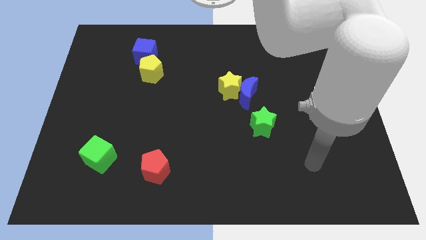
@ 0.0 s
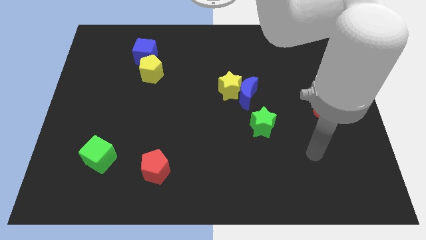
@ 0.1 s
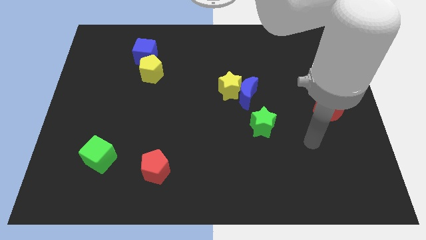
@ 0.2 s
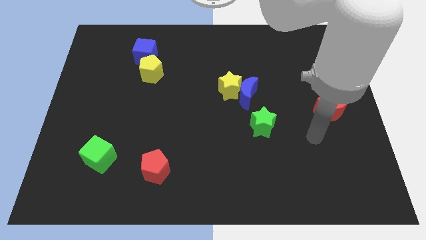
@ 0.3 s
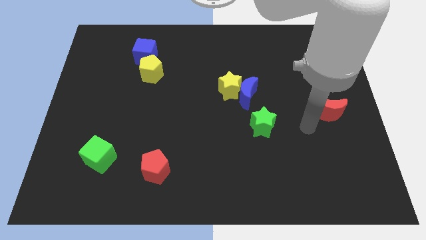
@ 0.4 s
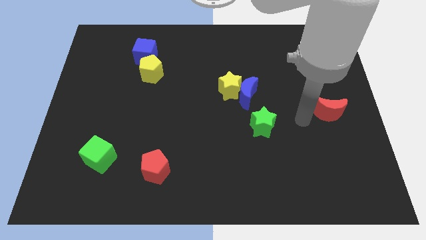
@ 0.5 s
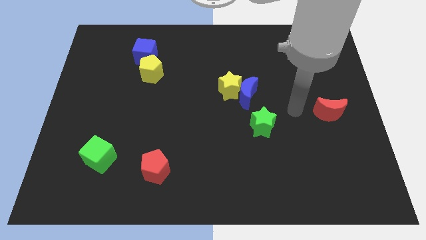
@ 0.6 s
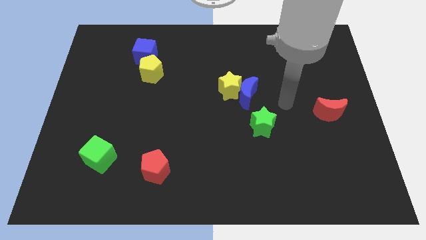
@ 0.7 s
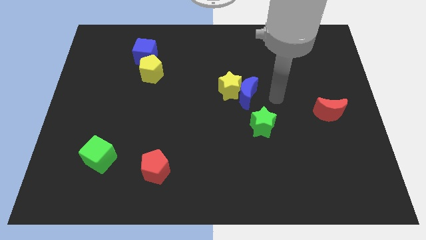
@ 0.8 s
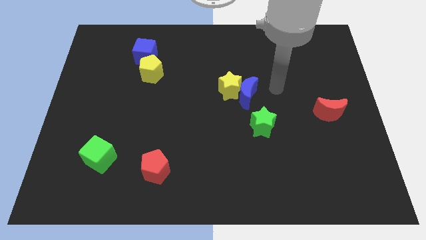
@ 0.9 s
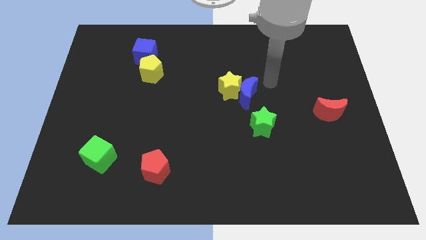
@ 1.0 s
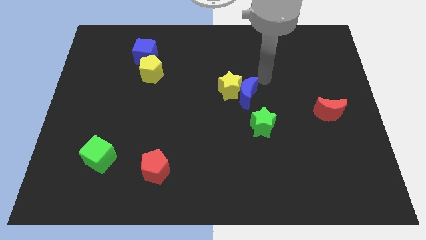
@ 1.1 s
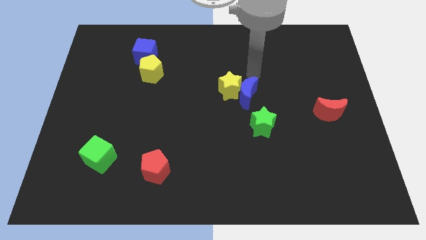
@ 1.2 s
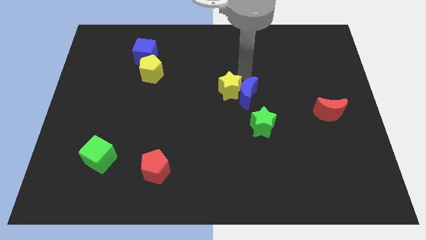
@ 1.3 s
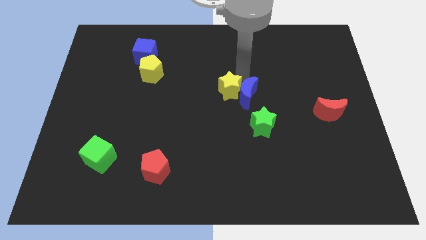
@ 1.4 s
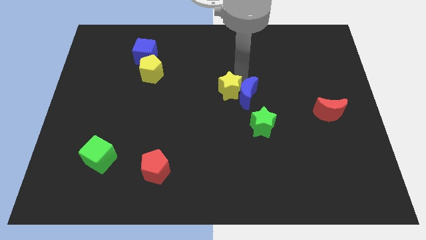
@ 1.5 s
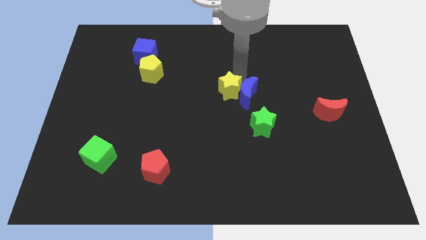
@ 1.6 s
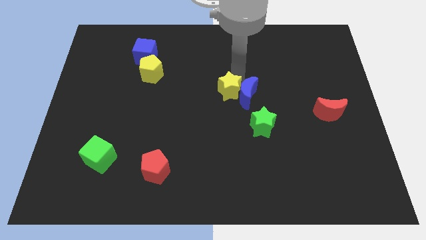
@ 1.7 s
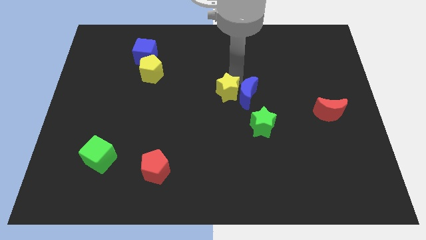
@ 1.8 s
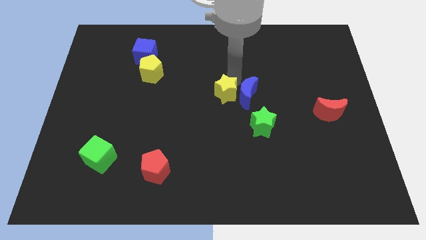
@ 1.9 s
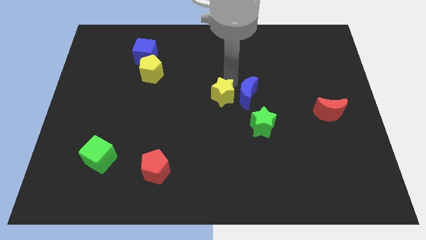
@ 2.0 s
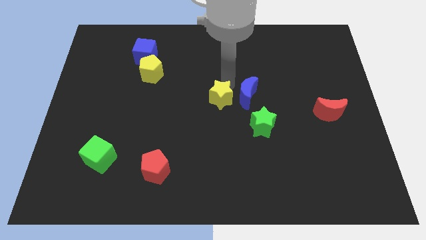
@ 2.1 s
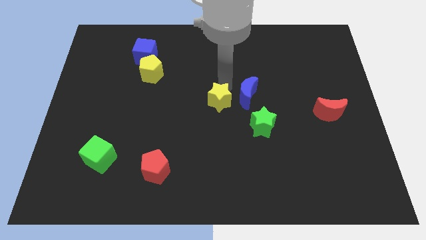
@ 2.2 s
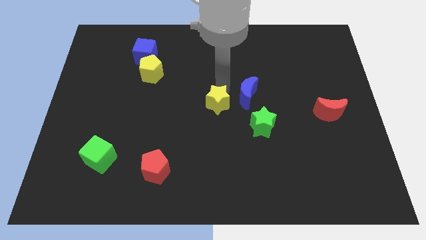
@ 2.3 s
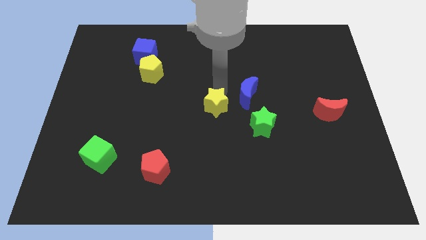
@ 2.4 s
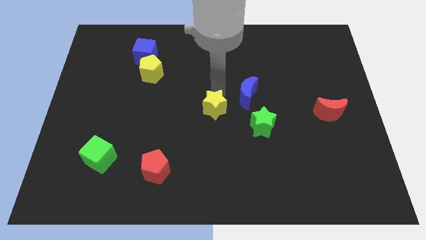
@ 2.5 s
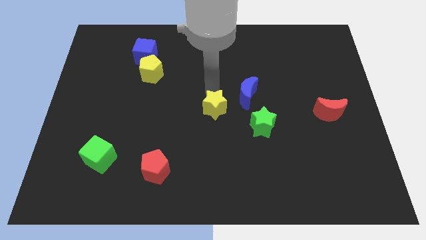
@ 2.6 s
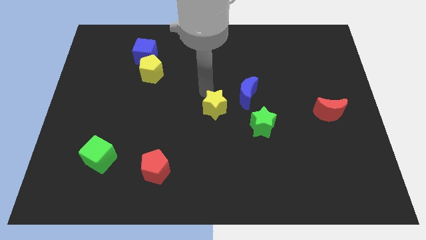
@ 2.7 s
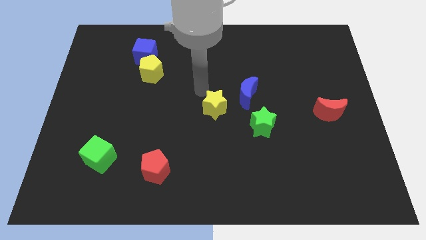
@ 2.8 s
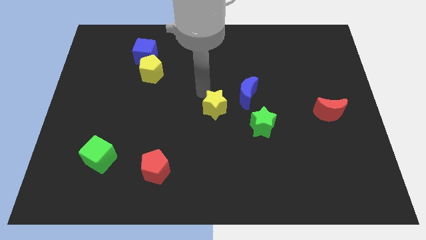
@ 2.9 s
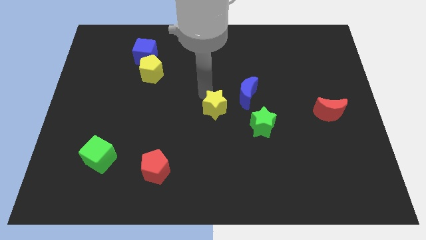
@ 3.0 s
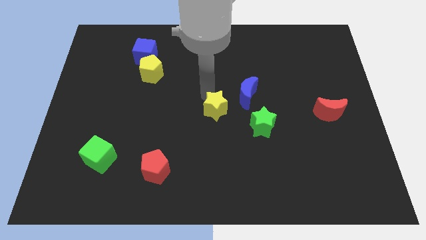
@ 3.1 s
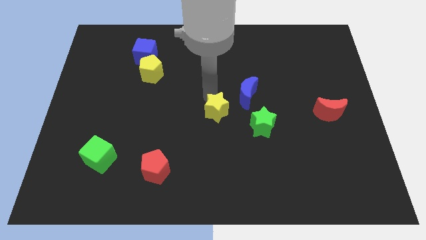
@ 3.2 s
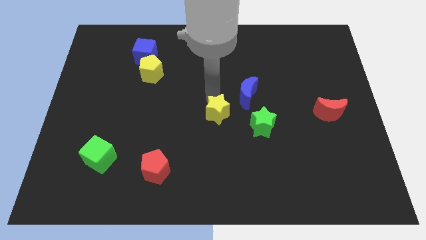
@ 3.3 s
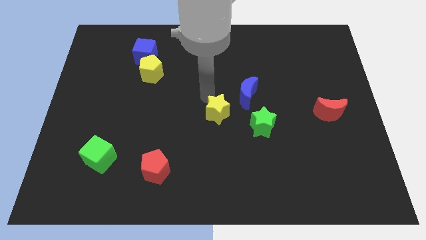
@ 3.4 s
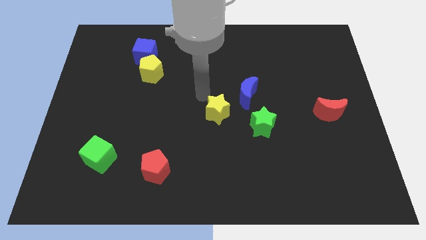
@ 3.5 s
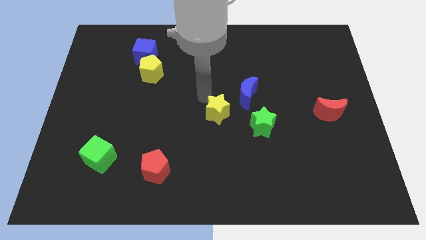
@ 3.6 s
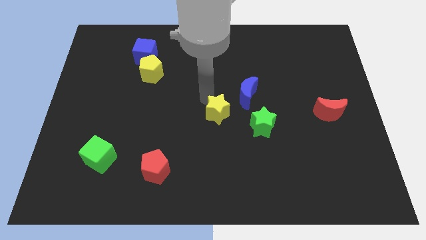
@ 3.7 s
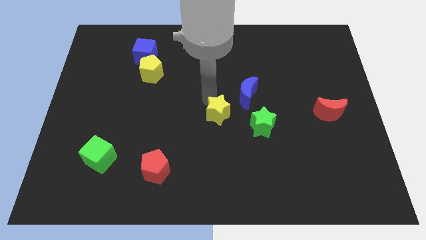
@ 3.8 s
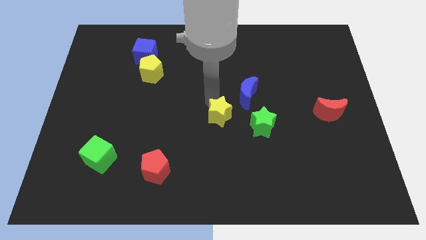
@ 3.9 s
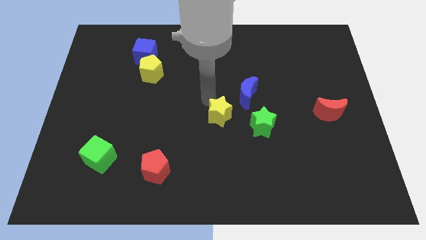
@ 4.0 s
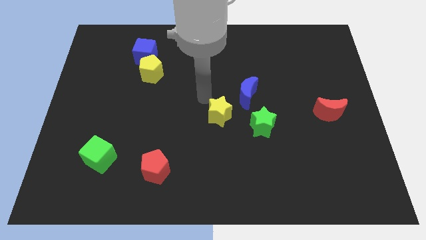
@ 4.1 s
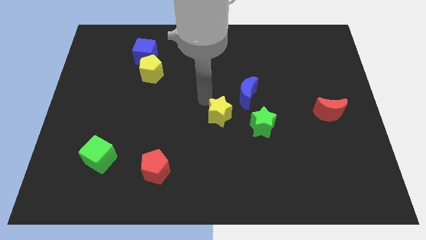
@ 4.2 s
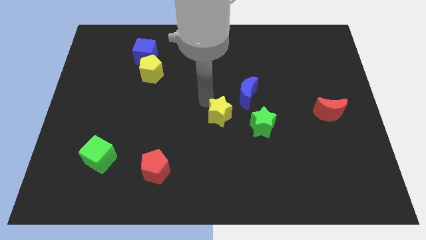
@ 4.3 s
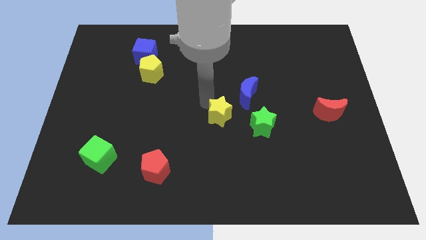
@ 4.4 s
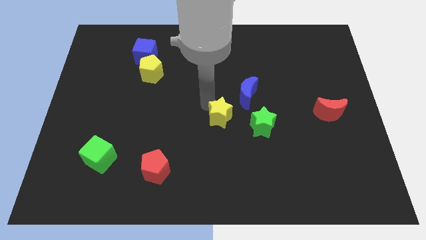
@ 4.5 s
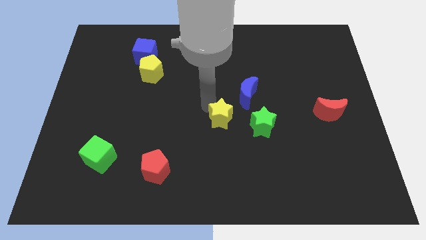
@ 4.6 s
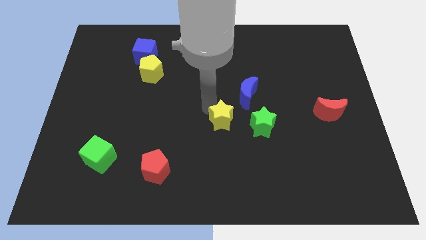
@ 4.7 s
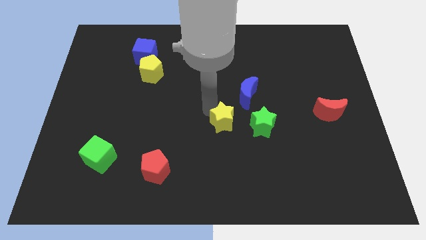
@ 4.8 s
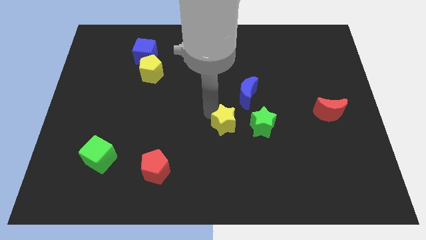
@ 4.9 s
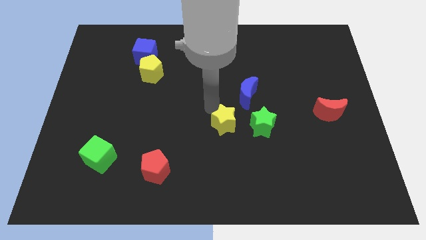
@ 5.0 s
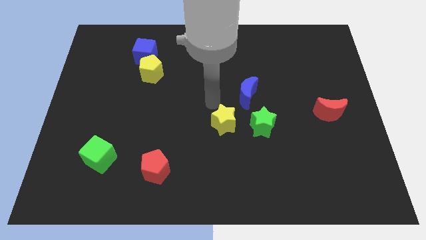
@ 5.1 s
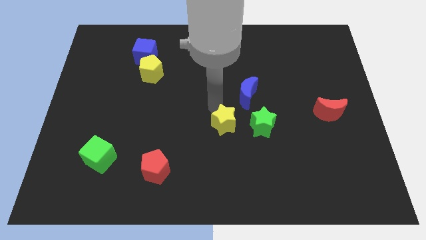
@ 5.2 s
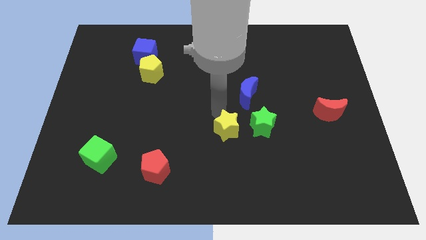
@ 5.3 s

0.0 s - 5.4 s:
push the yellow star diagonally down and to the left of the green star

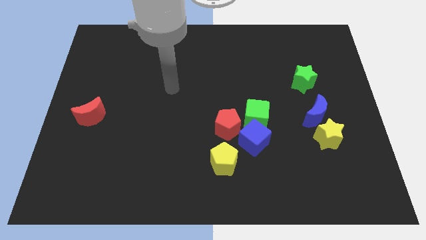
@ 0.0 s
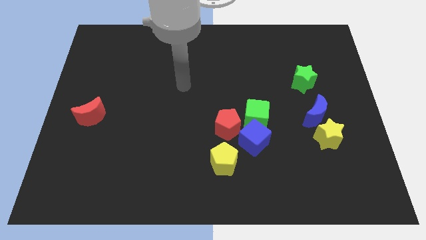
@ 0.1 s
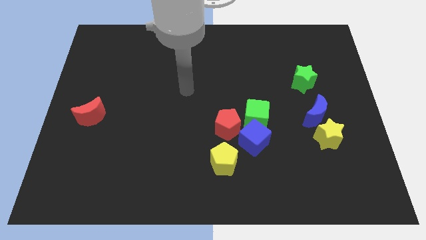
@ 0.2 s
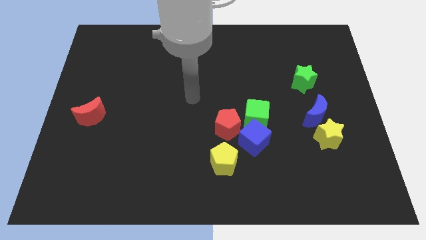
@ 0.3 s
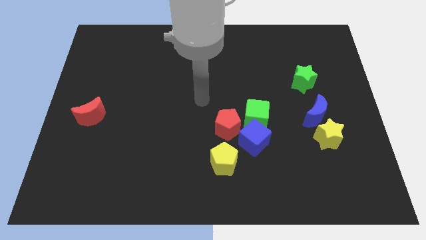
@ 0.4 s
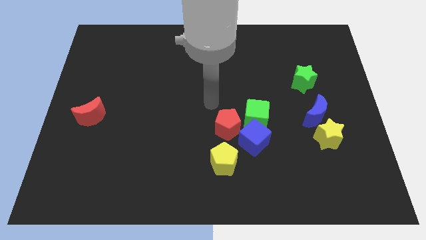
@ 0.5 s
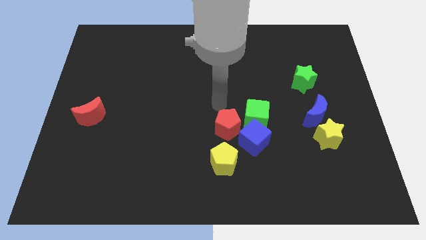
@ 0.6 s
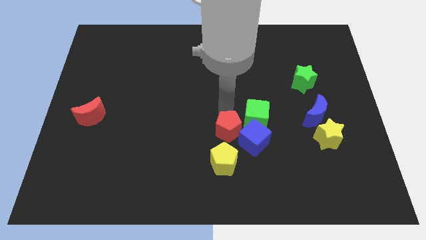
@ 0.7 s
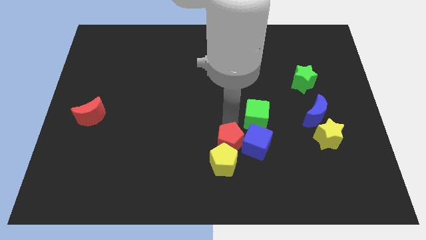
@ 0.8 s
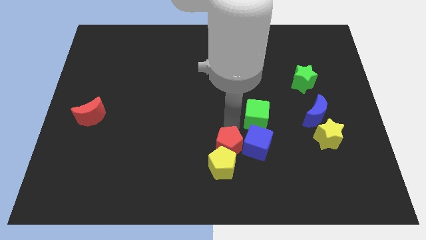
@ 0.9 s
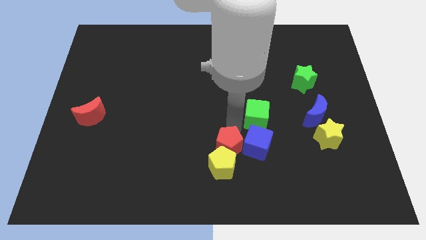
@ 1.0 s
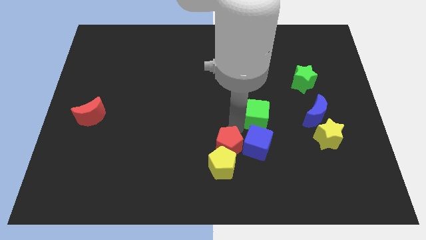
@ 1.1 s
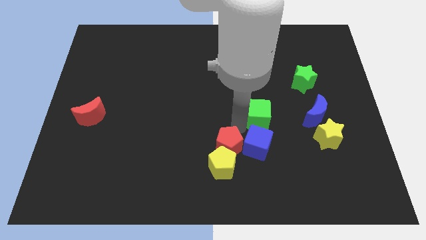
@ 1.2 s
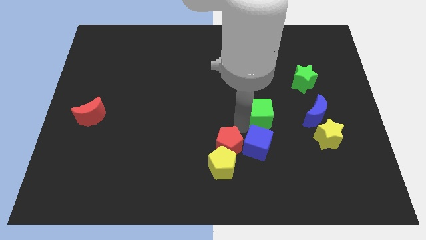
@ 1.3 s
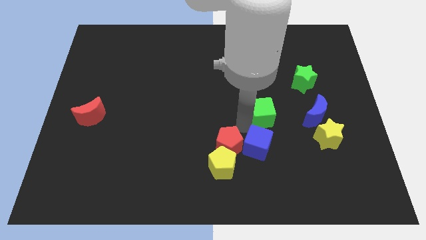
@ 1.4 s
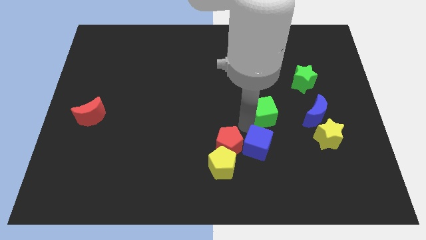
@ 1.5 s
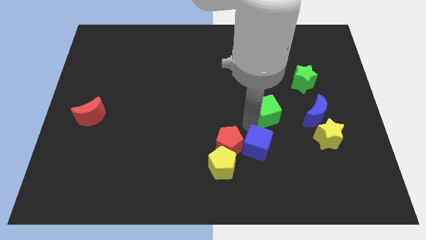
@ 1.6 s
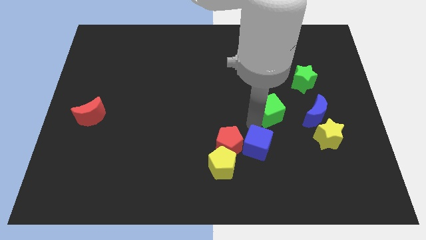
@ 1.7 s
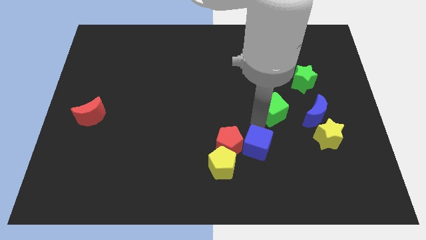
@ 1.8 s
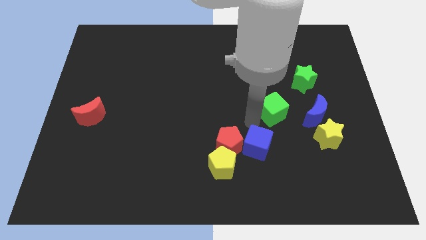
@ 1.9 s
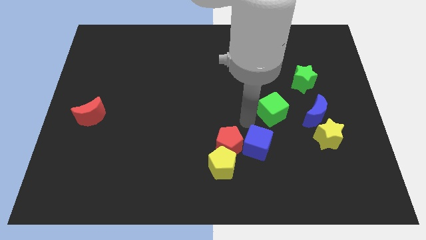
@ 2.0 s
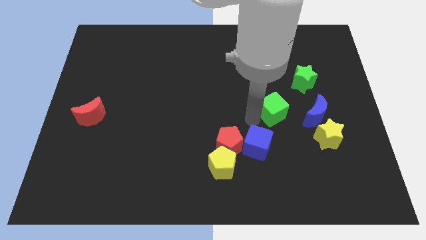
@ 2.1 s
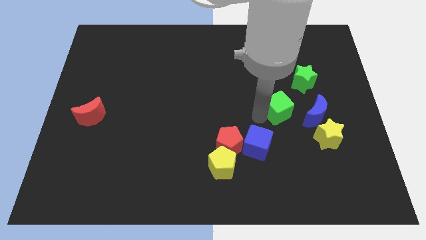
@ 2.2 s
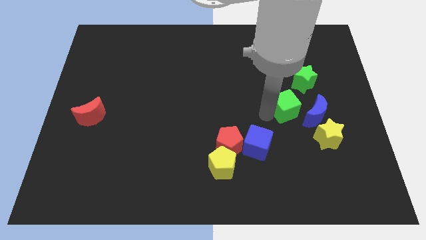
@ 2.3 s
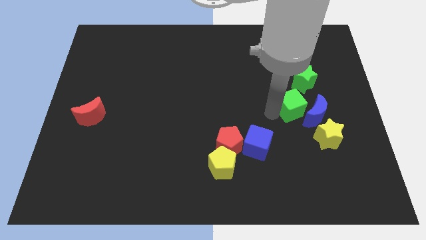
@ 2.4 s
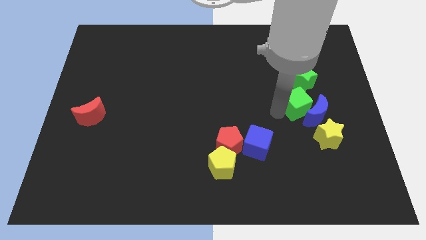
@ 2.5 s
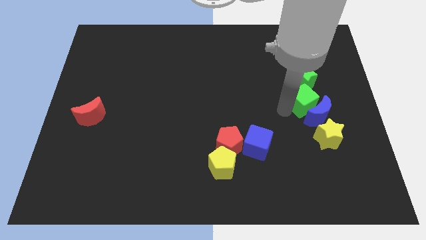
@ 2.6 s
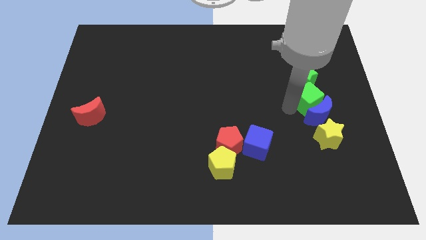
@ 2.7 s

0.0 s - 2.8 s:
move the green cube to the top right of the blue moon

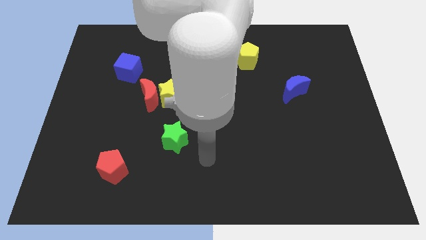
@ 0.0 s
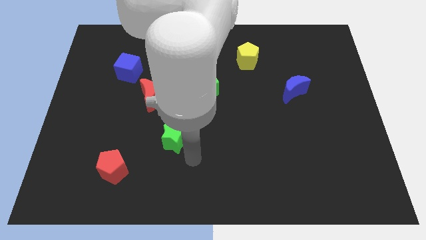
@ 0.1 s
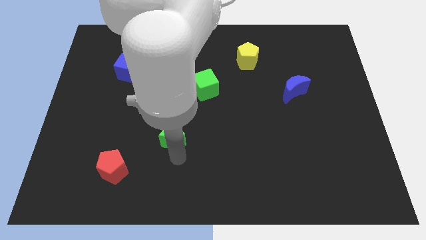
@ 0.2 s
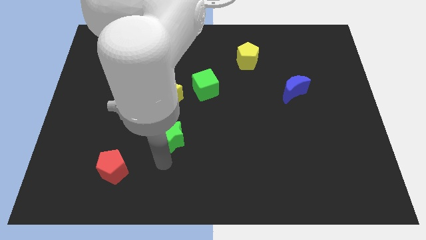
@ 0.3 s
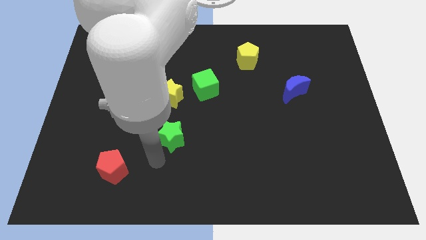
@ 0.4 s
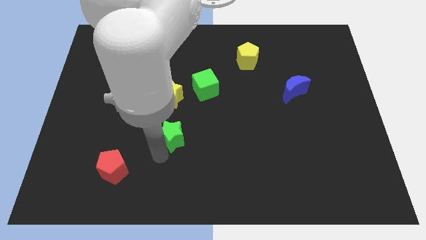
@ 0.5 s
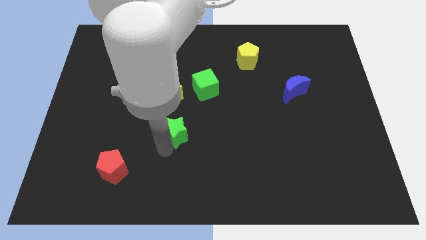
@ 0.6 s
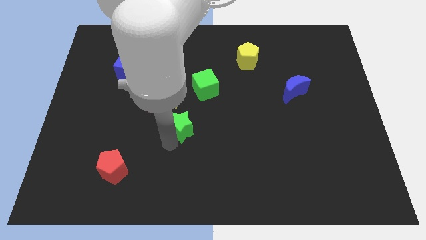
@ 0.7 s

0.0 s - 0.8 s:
put the green star diagonally down and to the right of the yellow star
